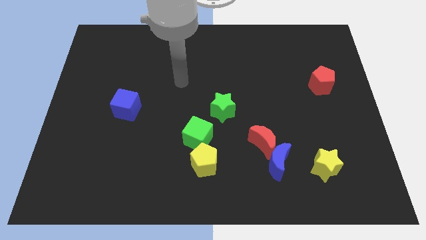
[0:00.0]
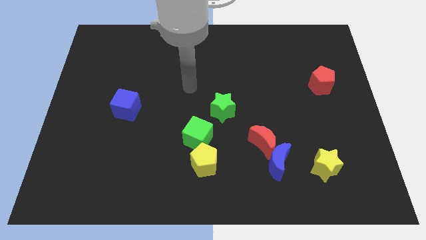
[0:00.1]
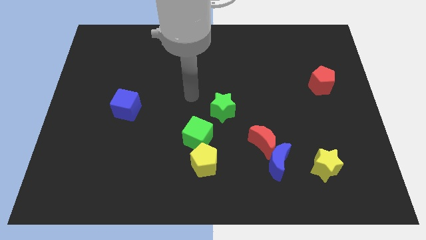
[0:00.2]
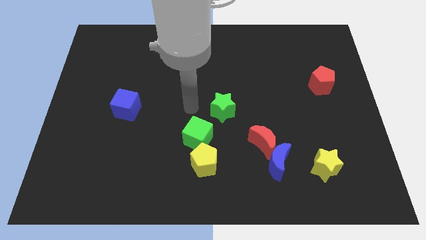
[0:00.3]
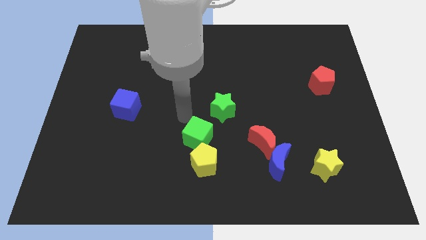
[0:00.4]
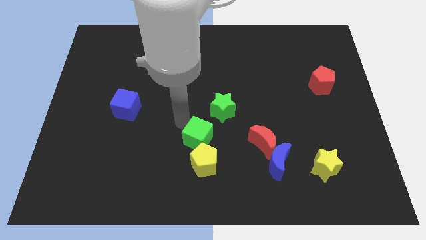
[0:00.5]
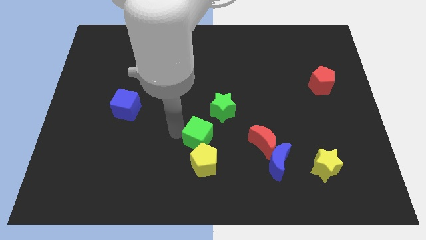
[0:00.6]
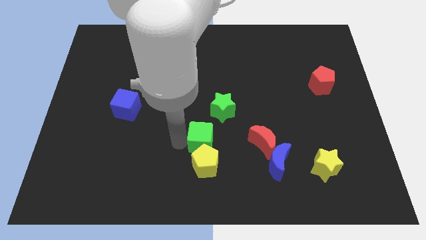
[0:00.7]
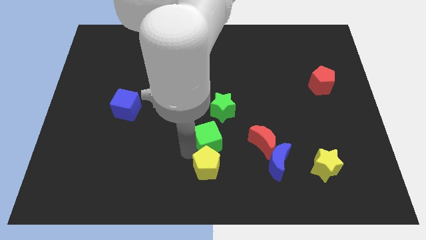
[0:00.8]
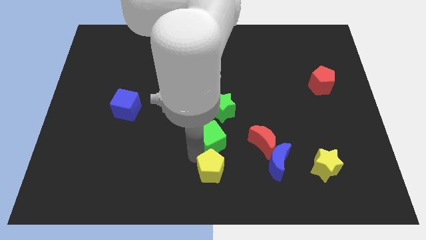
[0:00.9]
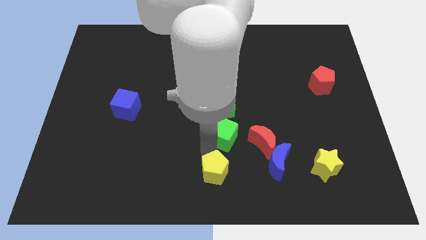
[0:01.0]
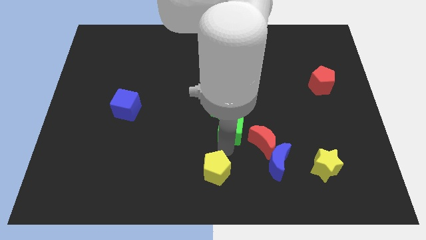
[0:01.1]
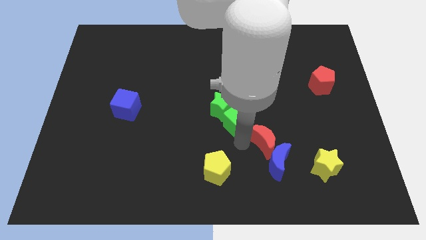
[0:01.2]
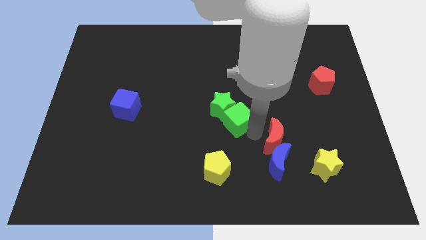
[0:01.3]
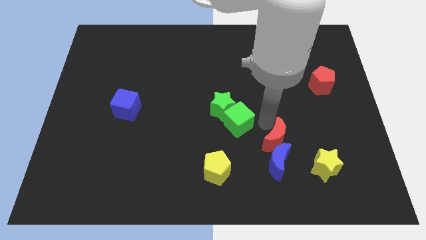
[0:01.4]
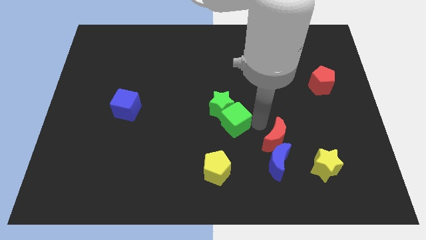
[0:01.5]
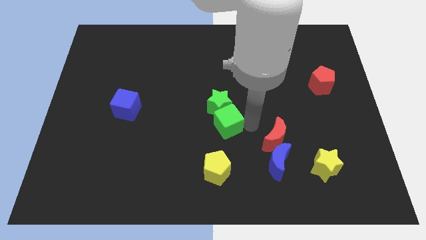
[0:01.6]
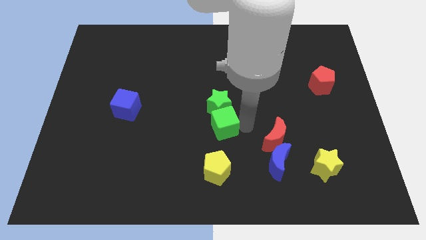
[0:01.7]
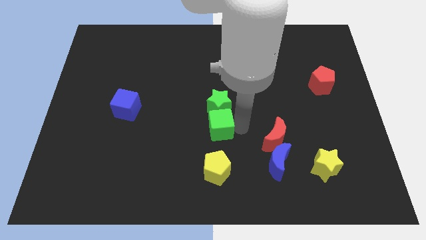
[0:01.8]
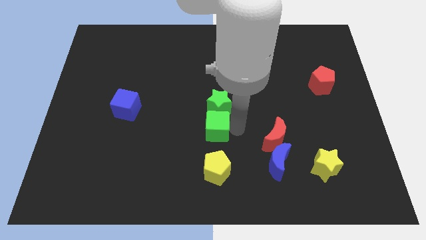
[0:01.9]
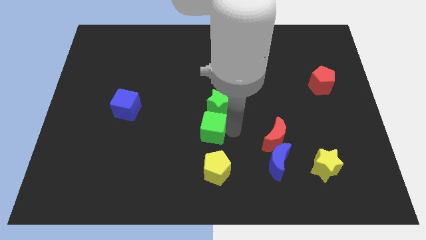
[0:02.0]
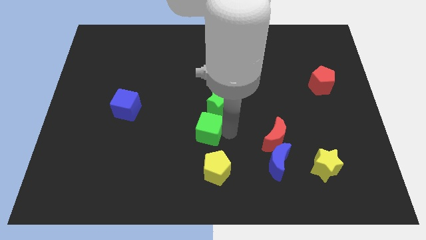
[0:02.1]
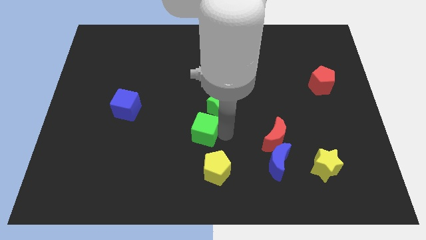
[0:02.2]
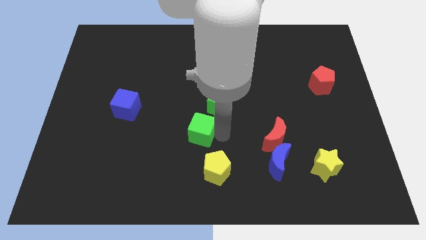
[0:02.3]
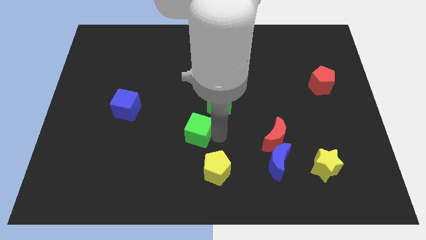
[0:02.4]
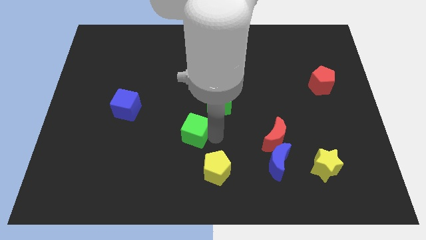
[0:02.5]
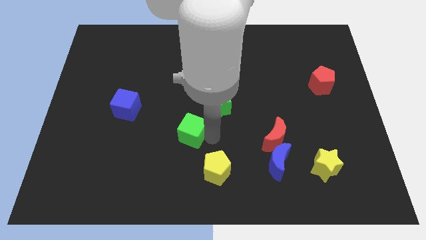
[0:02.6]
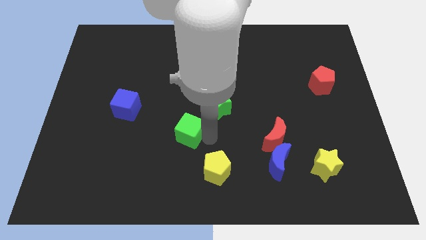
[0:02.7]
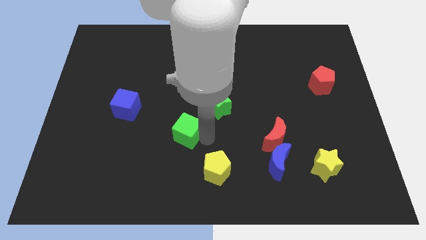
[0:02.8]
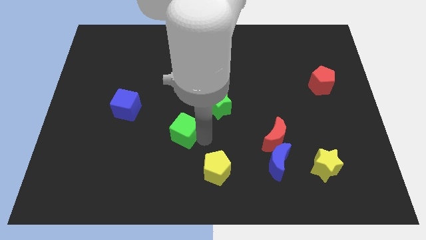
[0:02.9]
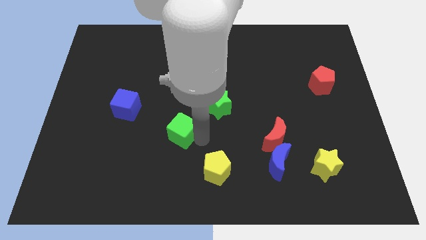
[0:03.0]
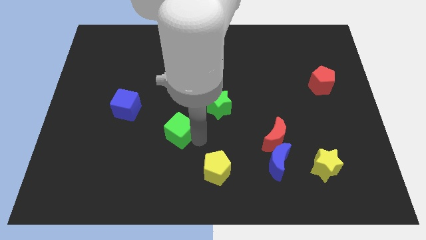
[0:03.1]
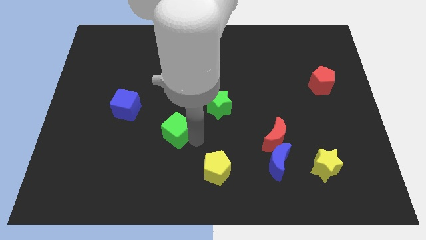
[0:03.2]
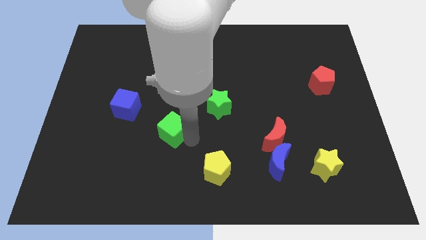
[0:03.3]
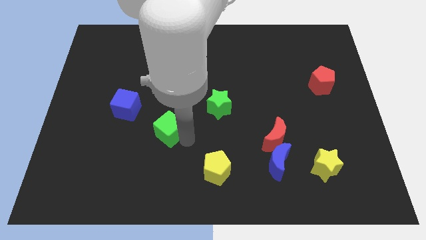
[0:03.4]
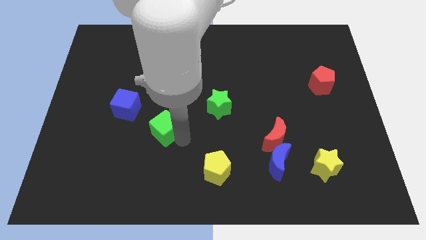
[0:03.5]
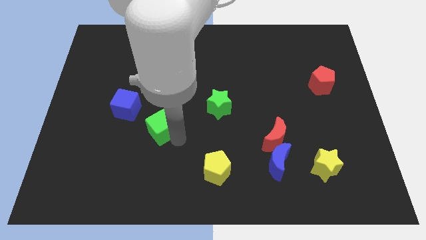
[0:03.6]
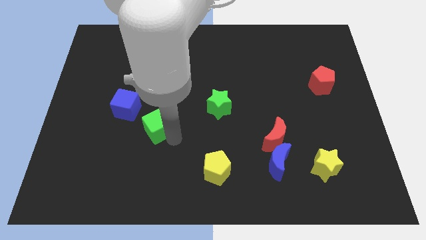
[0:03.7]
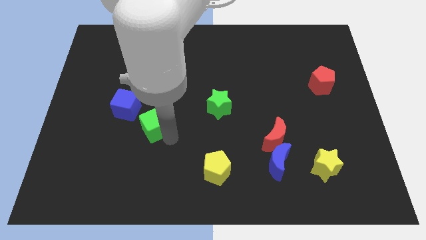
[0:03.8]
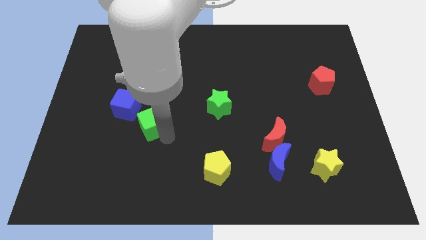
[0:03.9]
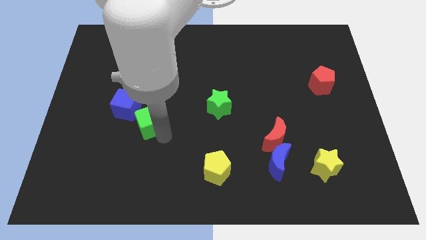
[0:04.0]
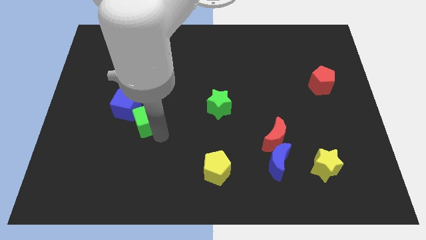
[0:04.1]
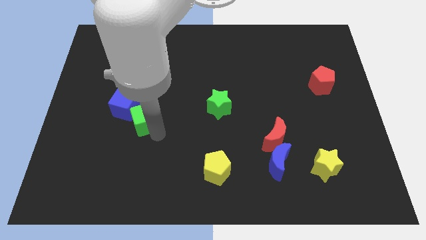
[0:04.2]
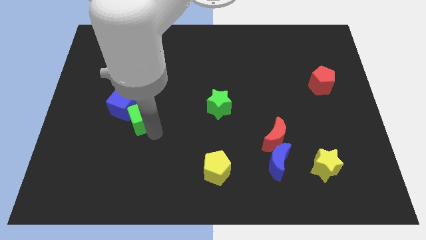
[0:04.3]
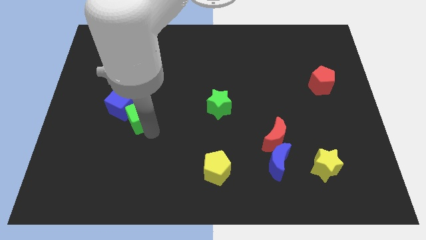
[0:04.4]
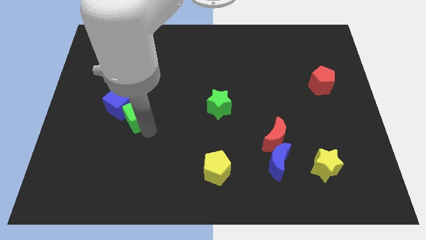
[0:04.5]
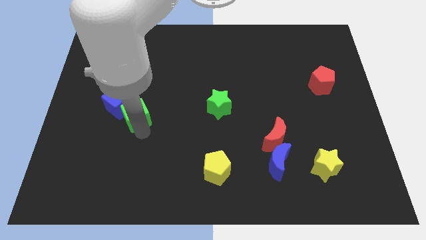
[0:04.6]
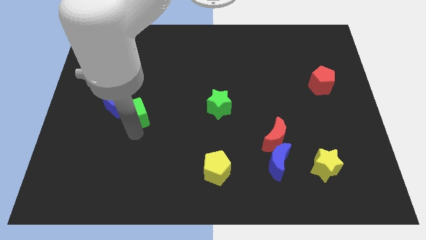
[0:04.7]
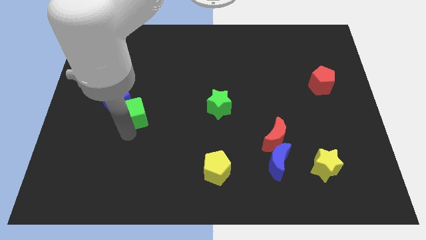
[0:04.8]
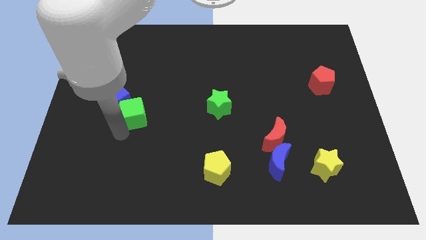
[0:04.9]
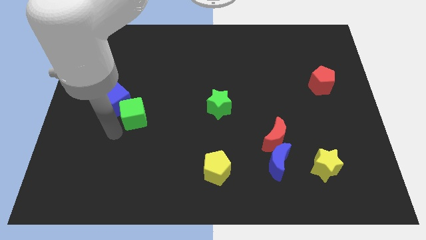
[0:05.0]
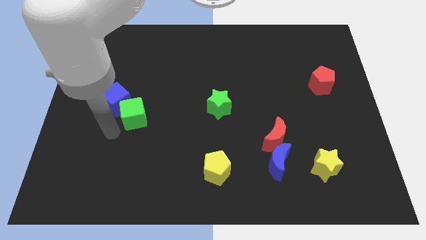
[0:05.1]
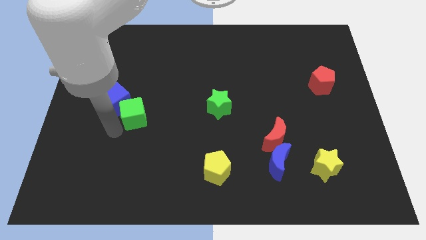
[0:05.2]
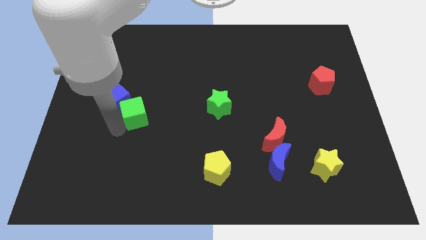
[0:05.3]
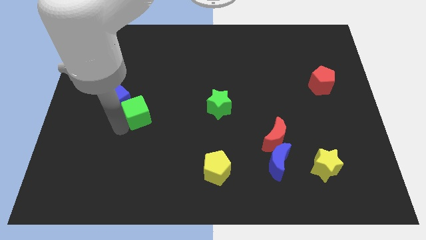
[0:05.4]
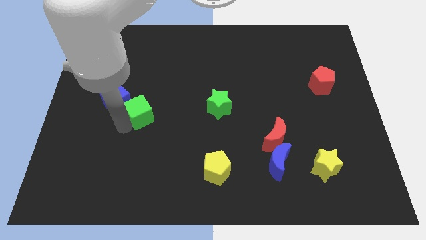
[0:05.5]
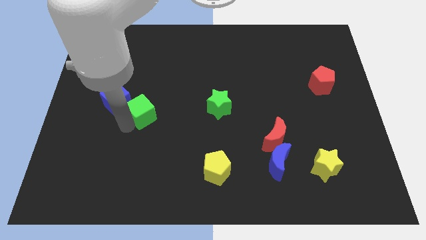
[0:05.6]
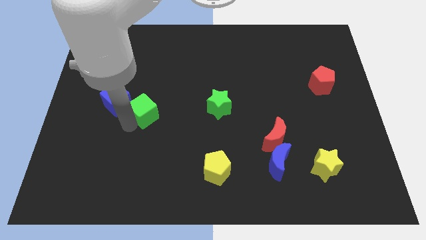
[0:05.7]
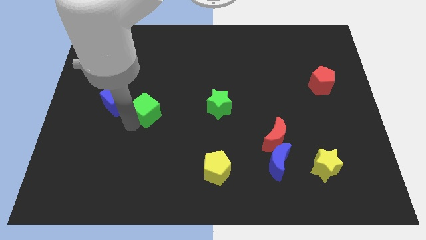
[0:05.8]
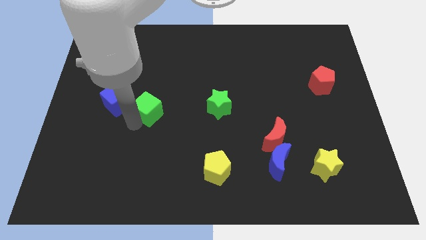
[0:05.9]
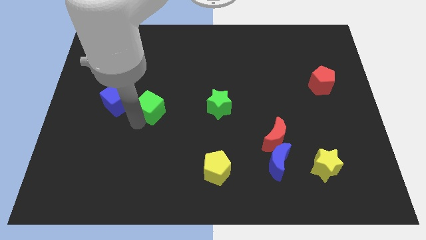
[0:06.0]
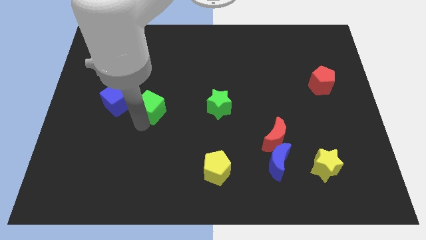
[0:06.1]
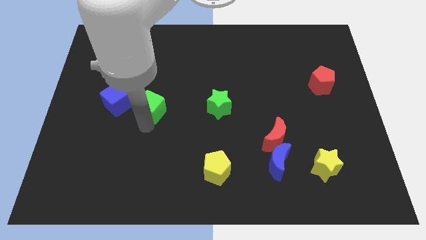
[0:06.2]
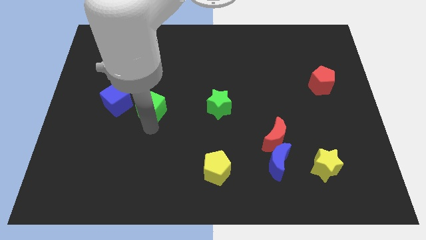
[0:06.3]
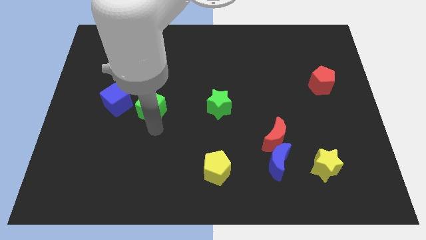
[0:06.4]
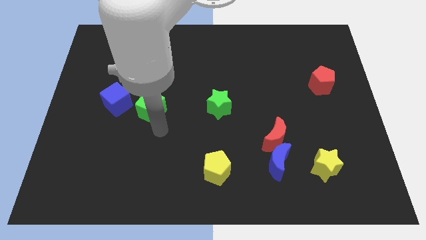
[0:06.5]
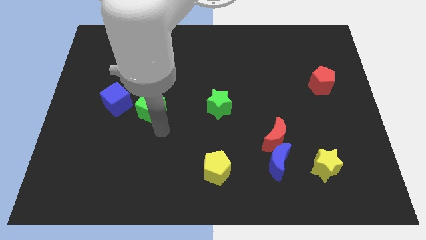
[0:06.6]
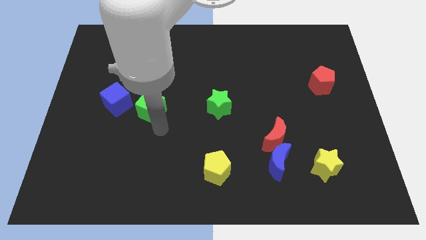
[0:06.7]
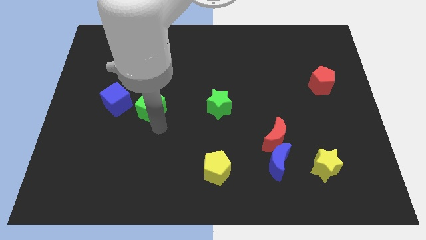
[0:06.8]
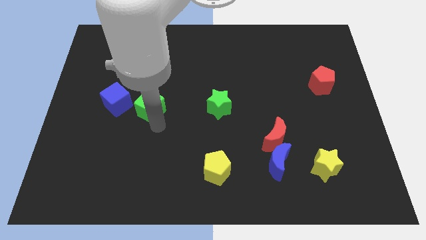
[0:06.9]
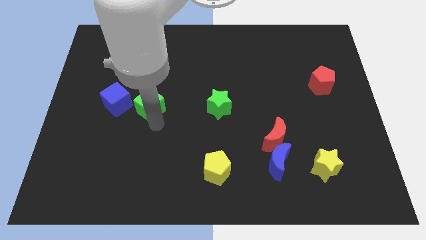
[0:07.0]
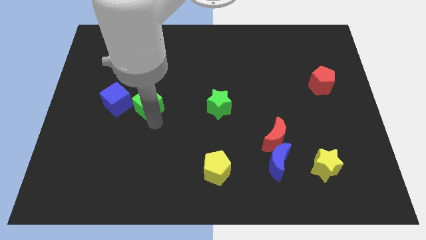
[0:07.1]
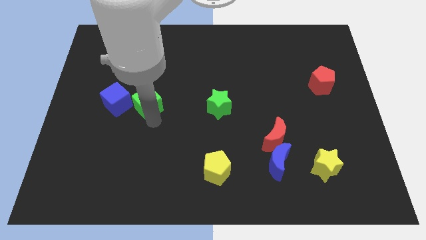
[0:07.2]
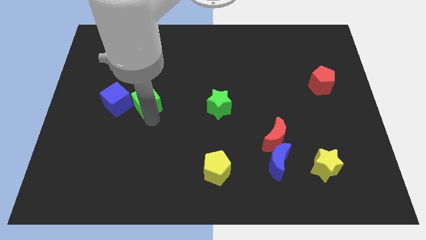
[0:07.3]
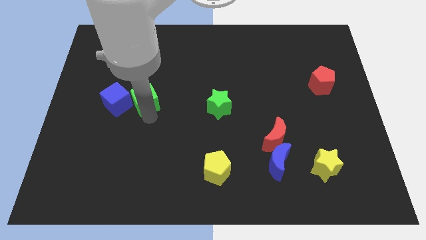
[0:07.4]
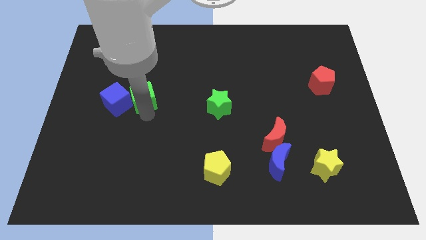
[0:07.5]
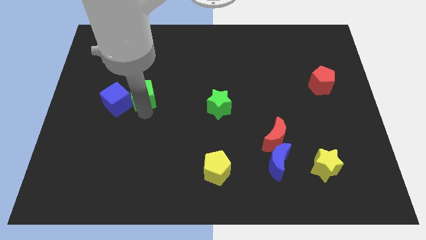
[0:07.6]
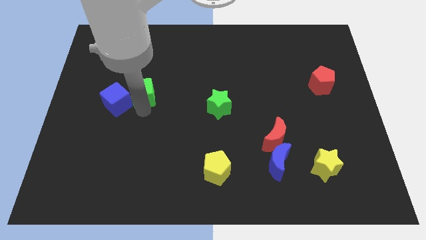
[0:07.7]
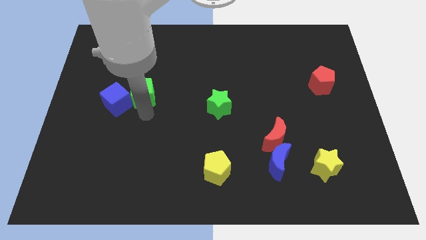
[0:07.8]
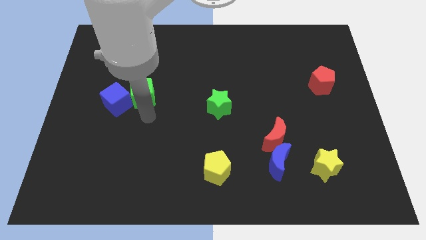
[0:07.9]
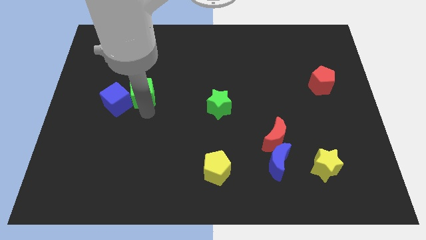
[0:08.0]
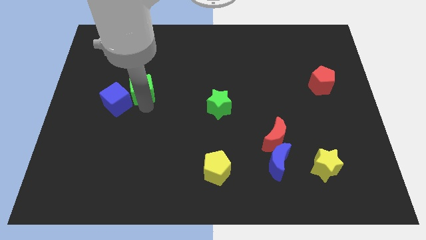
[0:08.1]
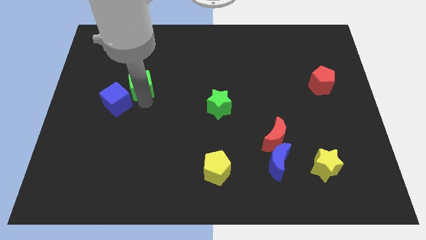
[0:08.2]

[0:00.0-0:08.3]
slide the green cube upwards and to the left diagonally

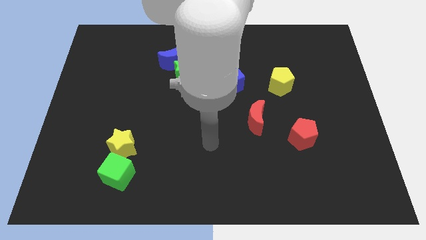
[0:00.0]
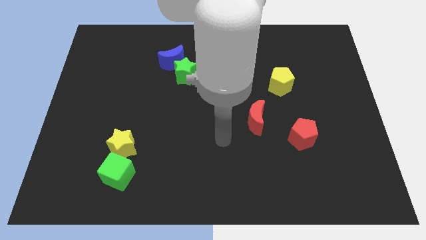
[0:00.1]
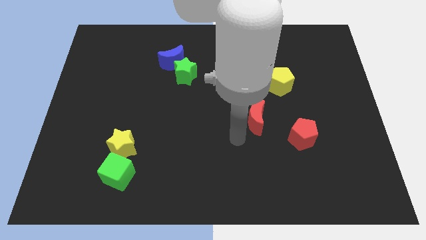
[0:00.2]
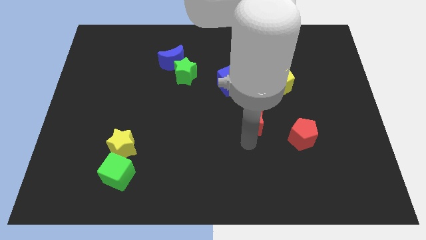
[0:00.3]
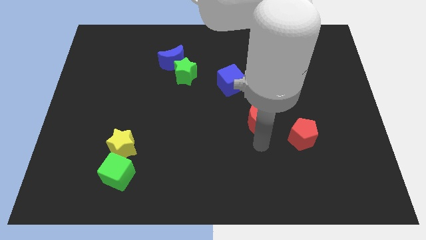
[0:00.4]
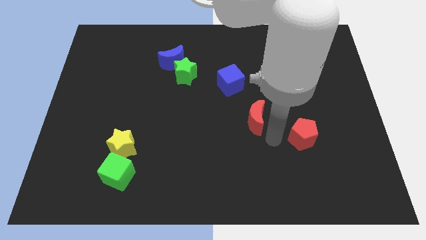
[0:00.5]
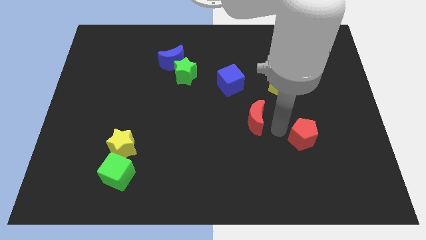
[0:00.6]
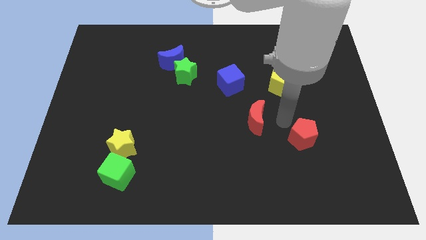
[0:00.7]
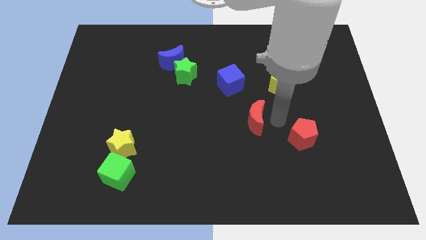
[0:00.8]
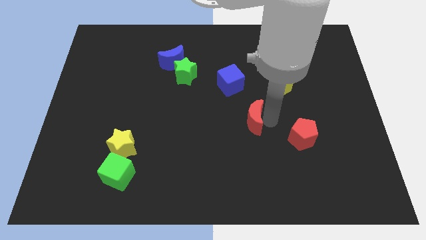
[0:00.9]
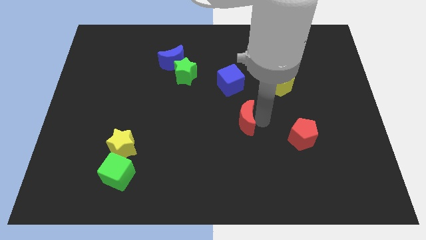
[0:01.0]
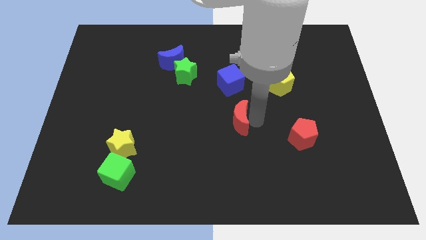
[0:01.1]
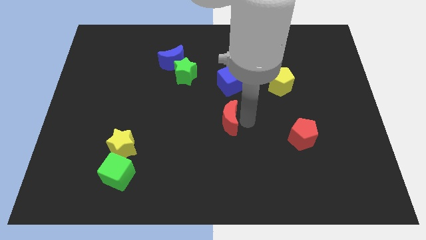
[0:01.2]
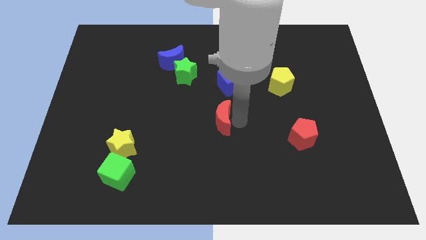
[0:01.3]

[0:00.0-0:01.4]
move the red moon a little bit left
